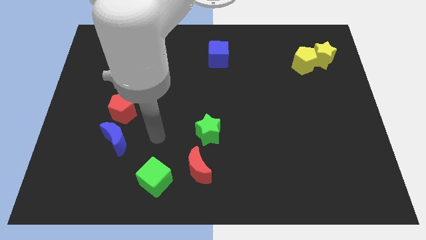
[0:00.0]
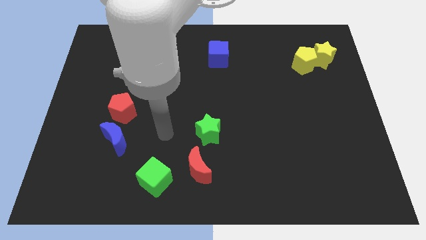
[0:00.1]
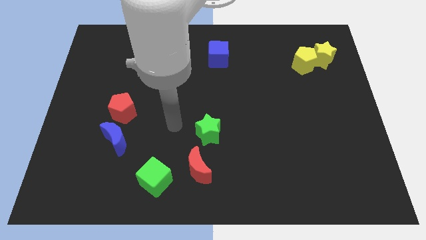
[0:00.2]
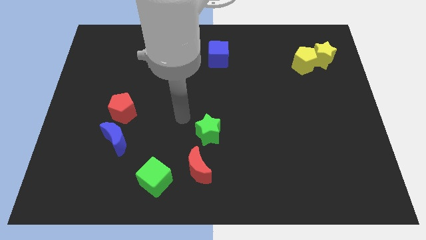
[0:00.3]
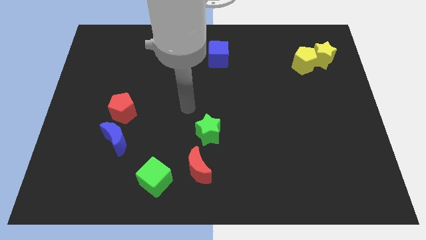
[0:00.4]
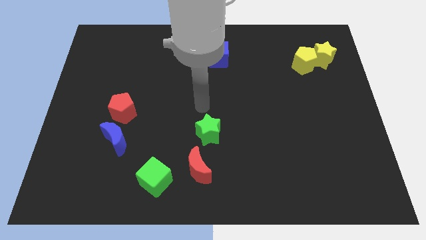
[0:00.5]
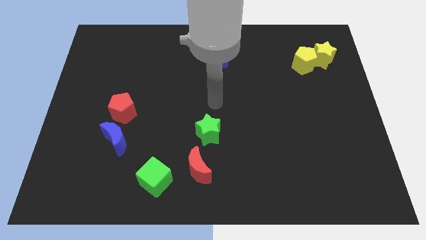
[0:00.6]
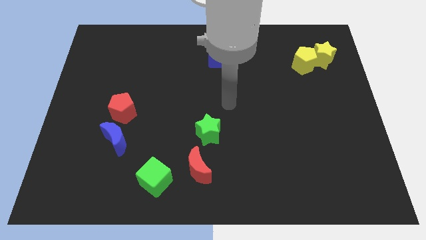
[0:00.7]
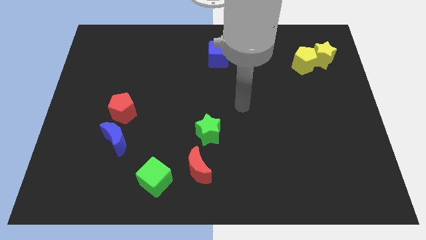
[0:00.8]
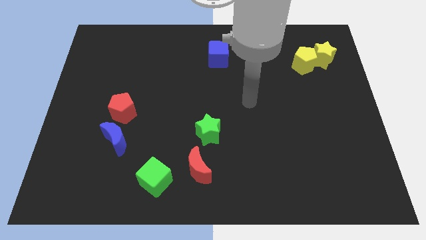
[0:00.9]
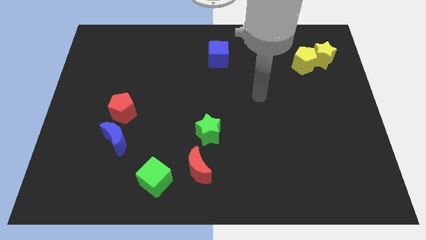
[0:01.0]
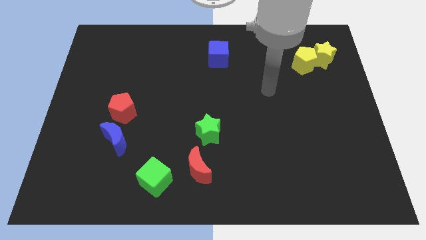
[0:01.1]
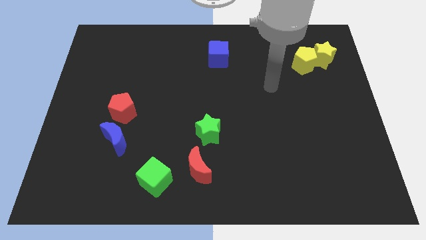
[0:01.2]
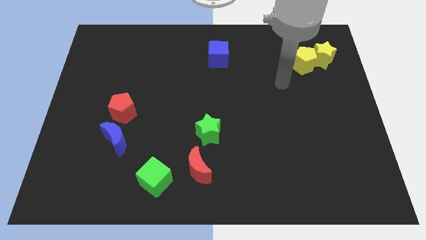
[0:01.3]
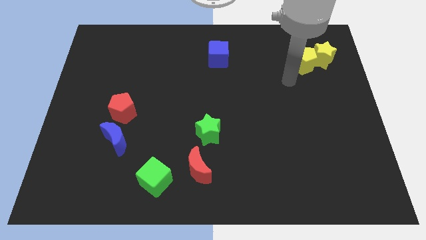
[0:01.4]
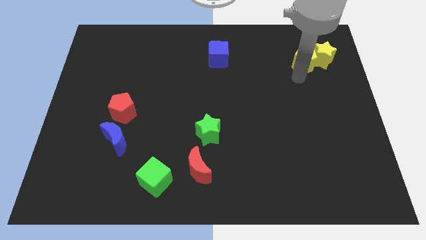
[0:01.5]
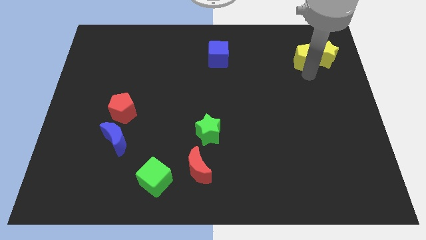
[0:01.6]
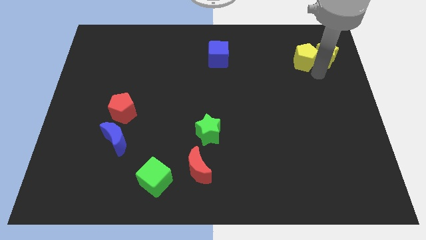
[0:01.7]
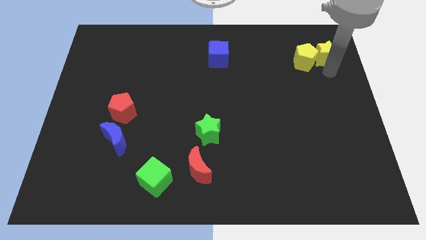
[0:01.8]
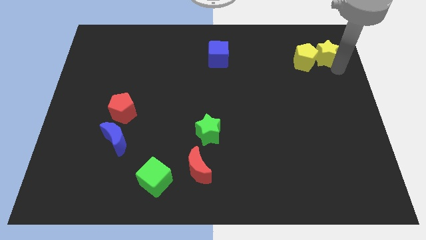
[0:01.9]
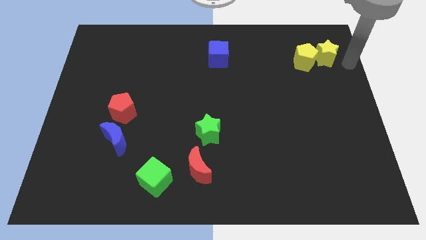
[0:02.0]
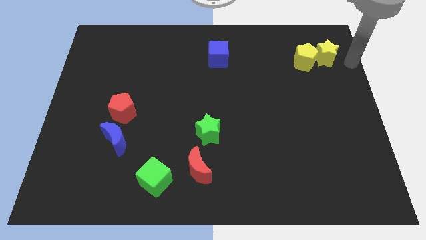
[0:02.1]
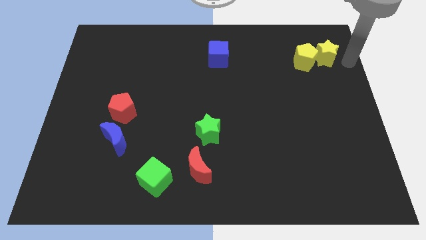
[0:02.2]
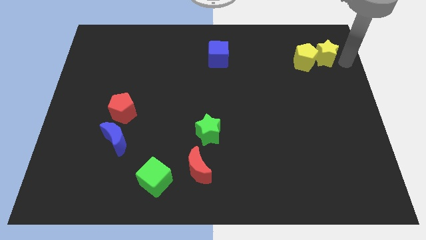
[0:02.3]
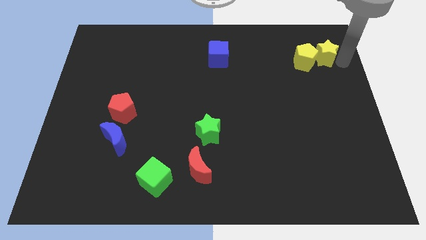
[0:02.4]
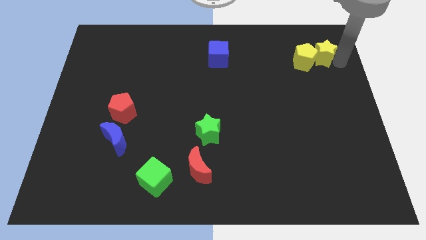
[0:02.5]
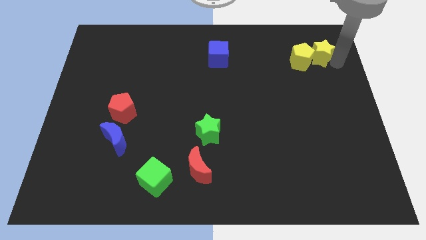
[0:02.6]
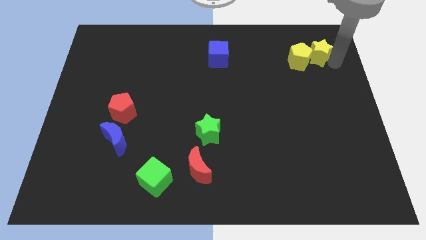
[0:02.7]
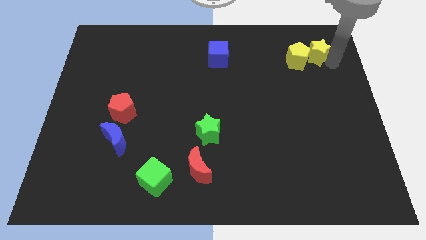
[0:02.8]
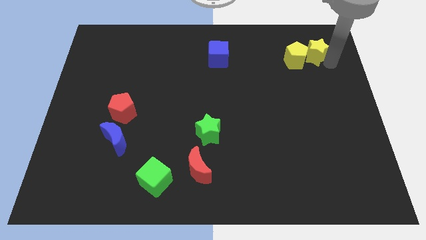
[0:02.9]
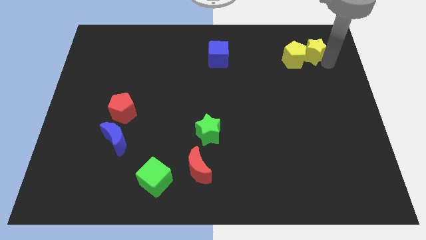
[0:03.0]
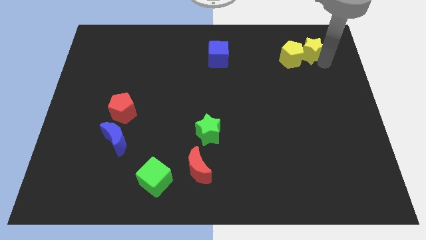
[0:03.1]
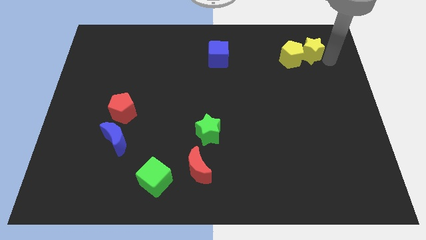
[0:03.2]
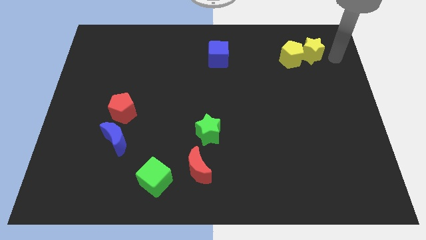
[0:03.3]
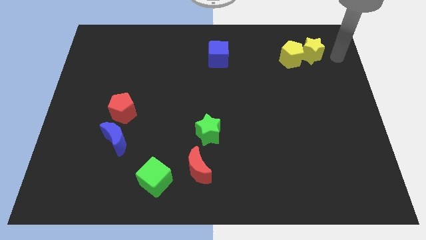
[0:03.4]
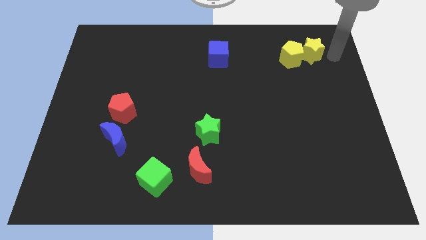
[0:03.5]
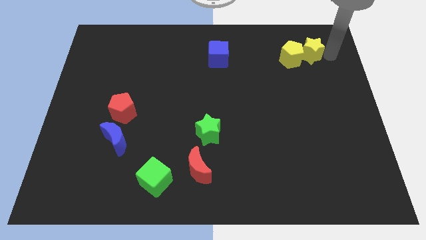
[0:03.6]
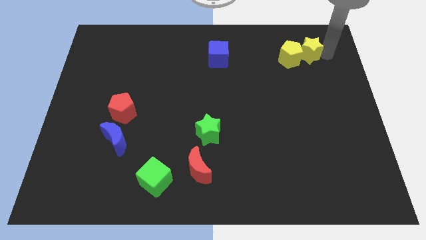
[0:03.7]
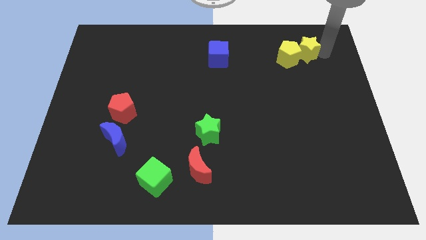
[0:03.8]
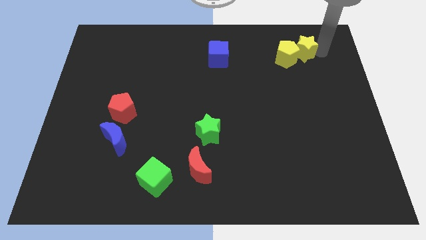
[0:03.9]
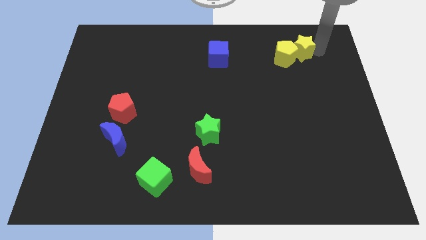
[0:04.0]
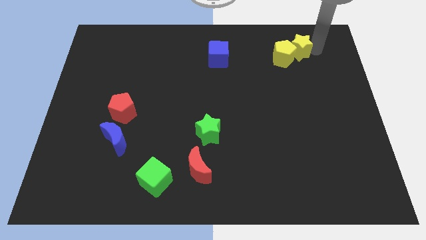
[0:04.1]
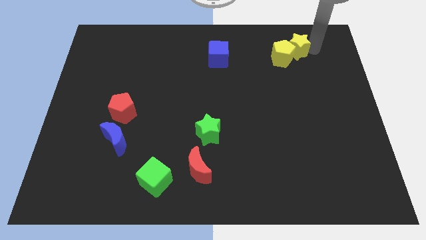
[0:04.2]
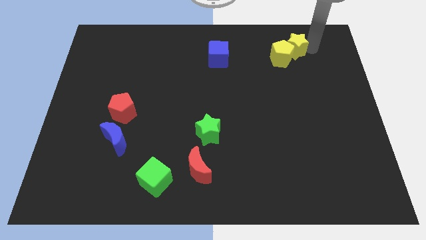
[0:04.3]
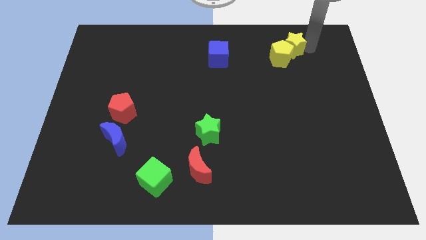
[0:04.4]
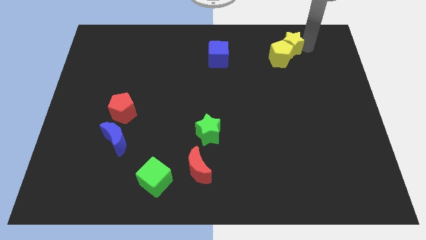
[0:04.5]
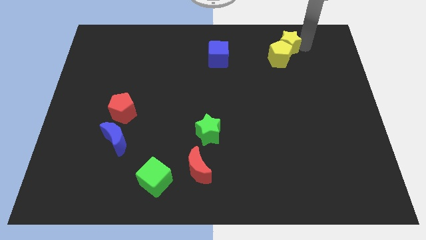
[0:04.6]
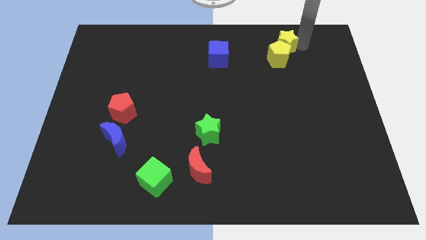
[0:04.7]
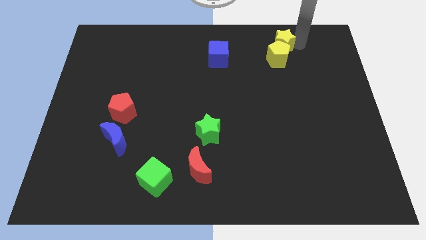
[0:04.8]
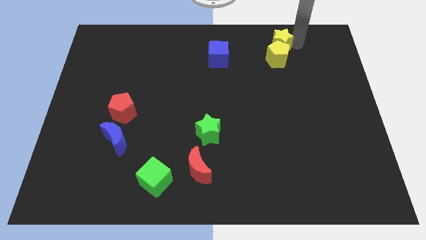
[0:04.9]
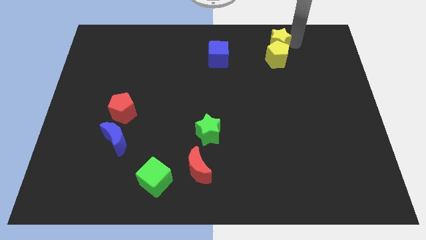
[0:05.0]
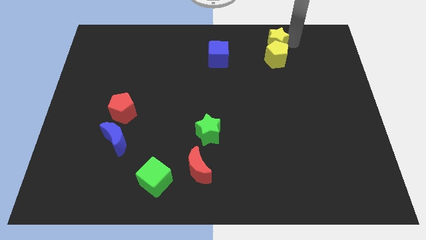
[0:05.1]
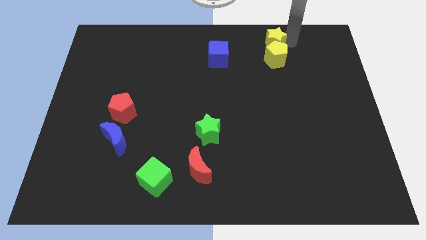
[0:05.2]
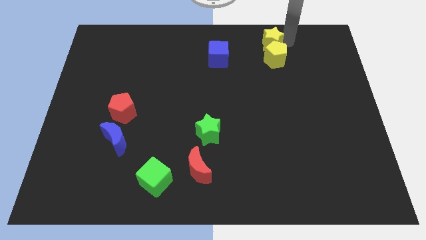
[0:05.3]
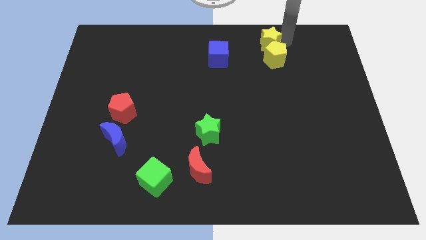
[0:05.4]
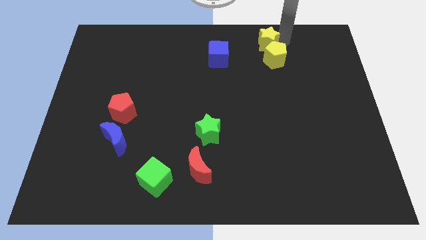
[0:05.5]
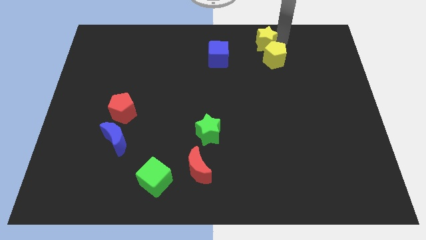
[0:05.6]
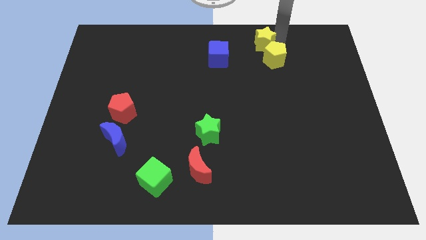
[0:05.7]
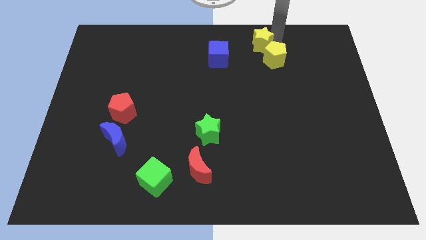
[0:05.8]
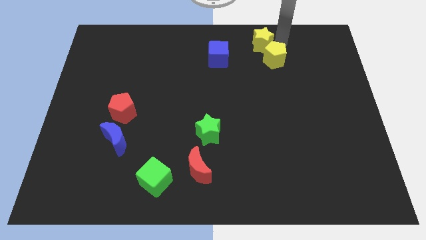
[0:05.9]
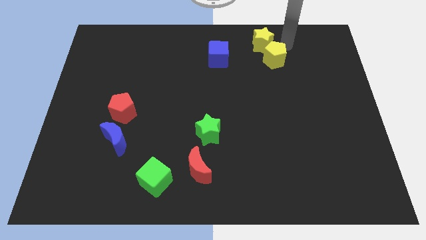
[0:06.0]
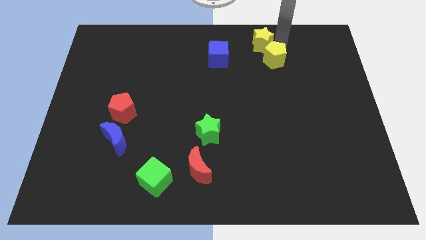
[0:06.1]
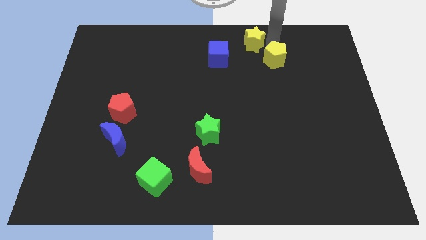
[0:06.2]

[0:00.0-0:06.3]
slide the yellow star to the towards your base

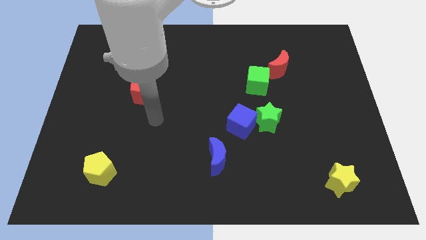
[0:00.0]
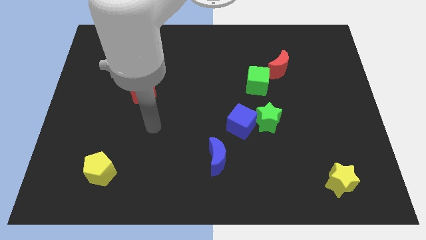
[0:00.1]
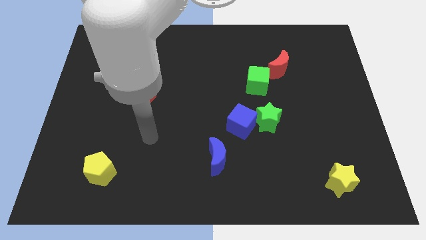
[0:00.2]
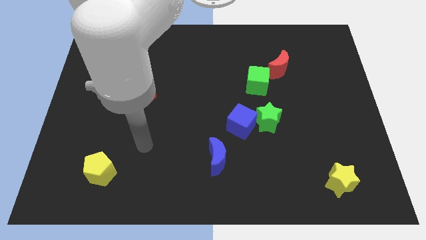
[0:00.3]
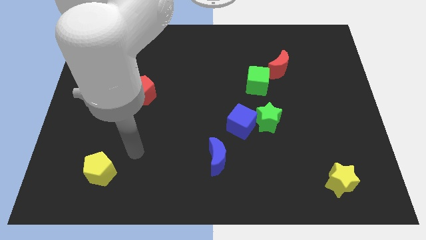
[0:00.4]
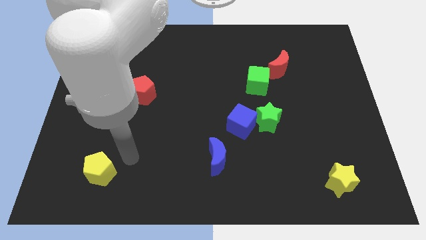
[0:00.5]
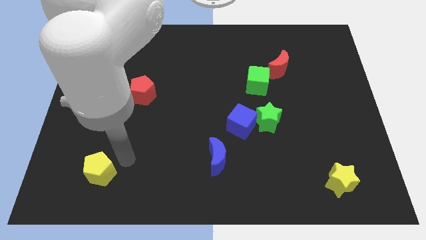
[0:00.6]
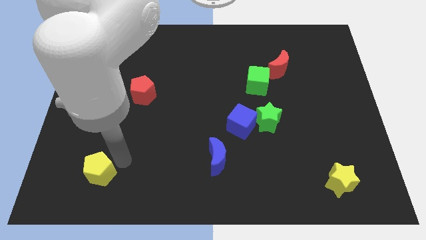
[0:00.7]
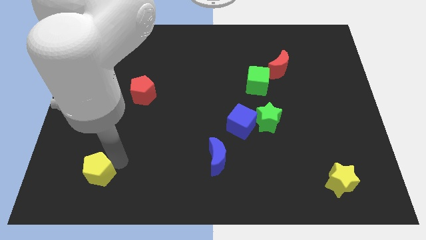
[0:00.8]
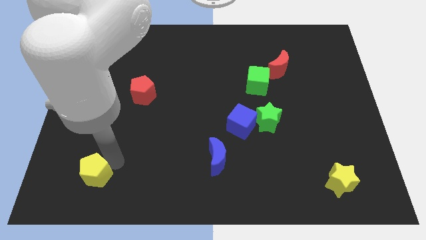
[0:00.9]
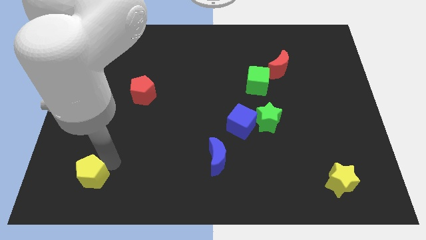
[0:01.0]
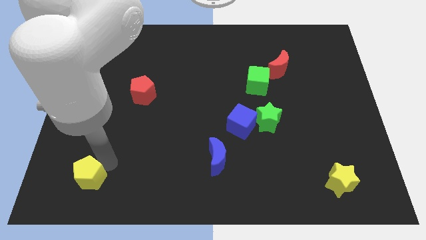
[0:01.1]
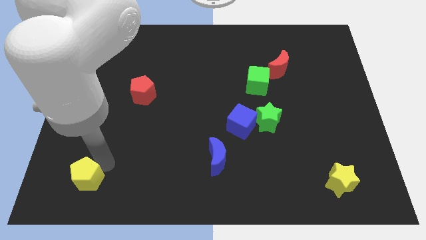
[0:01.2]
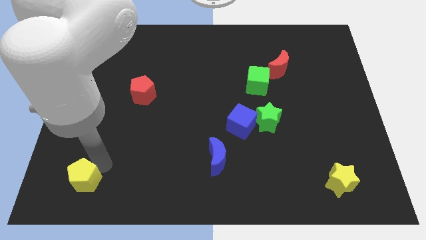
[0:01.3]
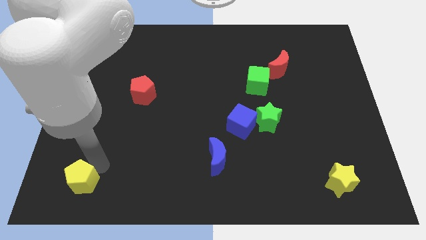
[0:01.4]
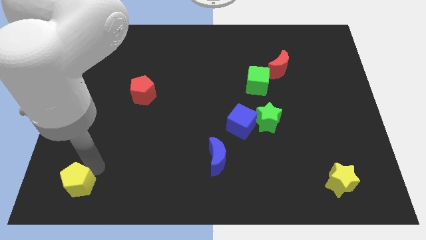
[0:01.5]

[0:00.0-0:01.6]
put the yellow pentagon to the bottom left corner
